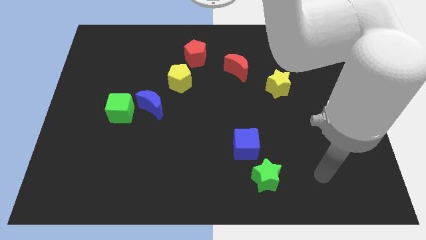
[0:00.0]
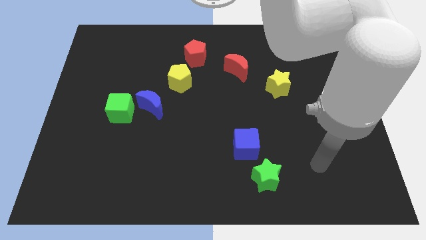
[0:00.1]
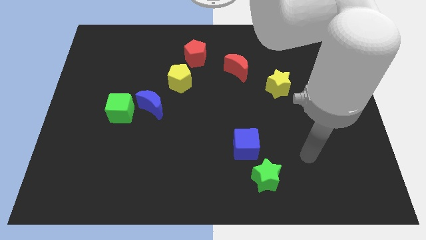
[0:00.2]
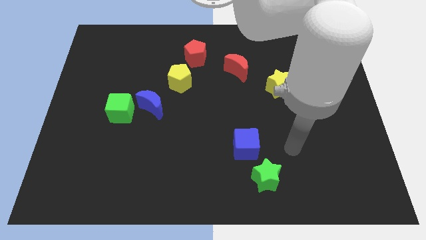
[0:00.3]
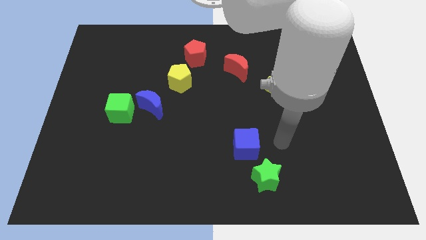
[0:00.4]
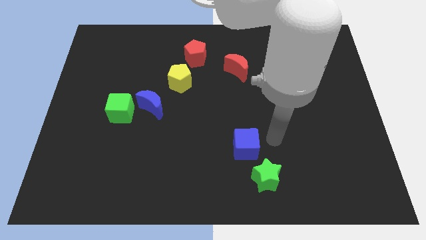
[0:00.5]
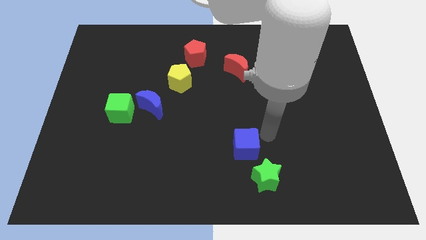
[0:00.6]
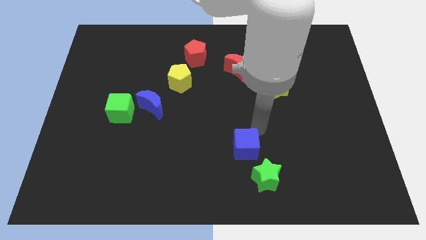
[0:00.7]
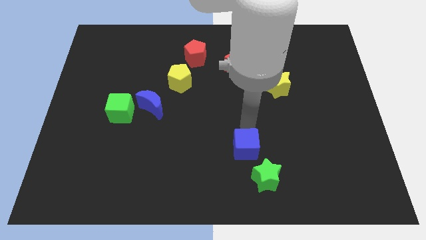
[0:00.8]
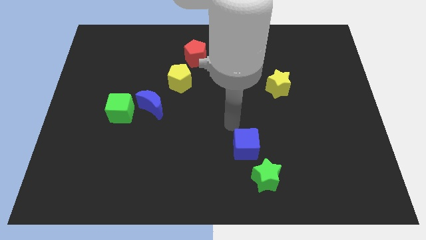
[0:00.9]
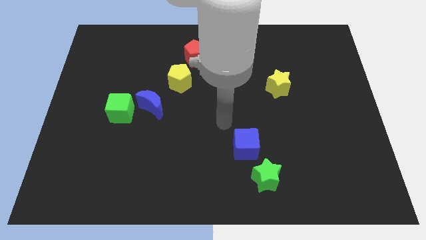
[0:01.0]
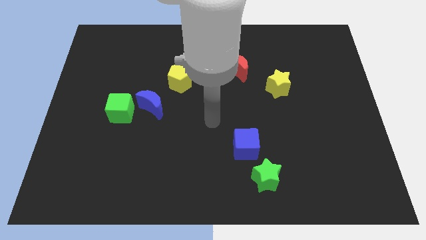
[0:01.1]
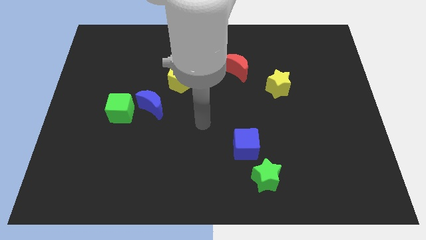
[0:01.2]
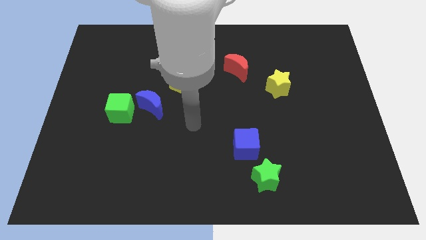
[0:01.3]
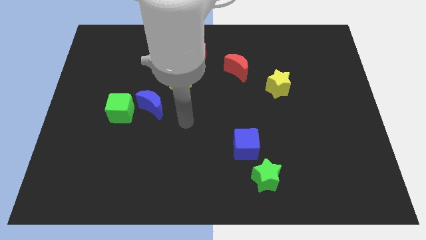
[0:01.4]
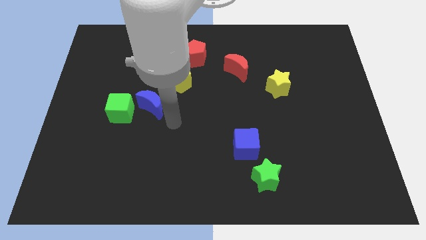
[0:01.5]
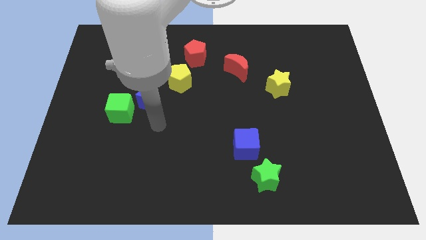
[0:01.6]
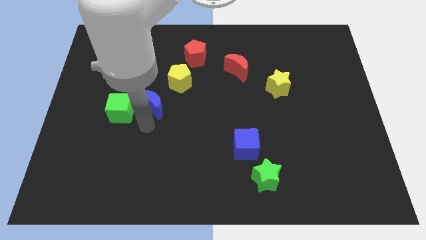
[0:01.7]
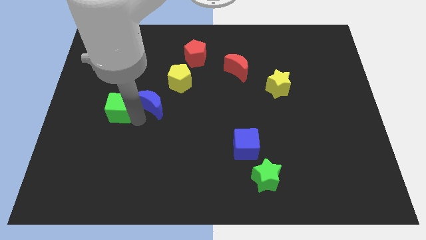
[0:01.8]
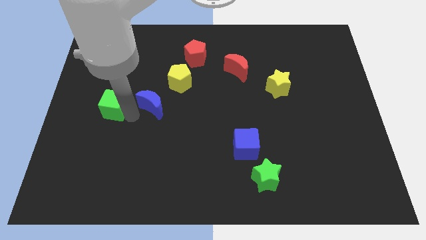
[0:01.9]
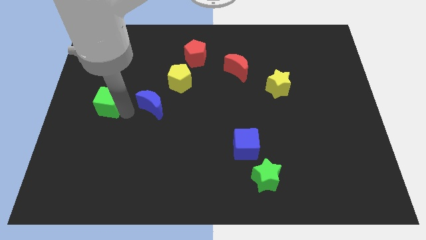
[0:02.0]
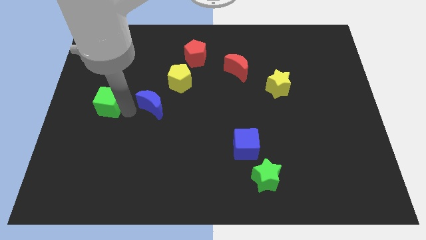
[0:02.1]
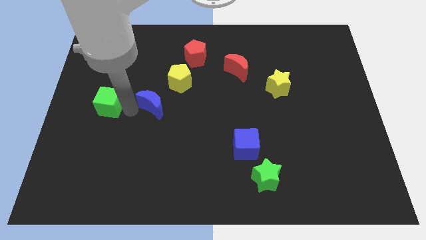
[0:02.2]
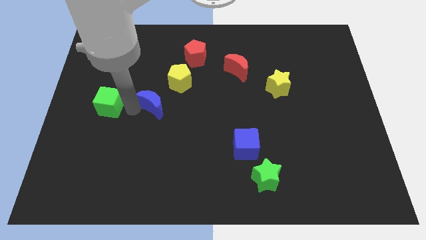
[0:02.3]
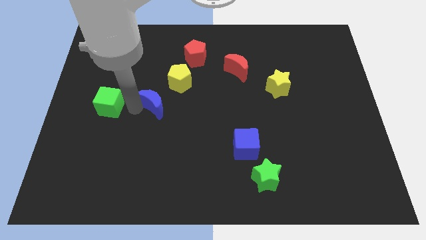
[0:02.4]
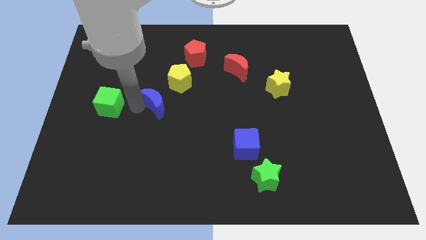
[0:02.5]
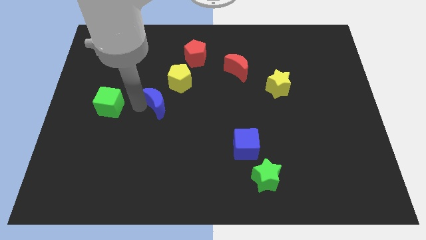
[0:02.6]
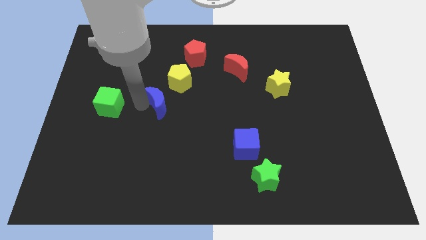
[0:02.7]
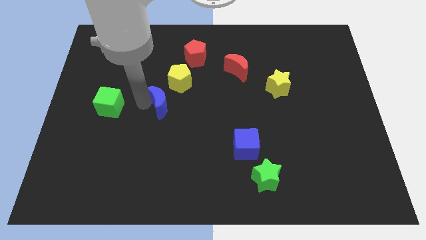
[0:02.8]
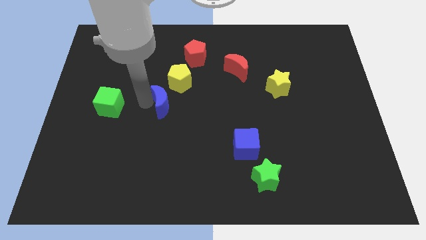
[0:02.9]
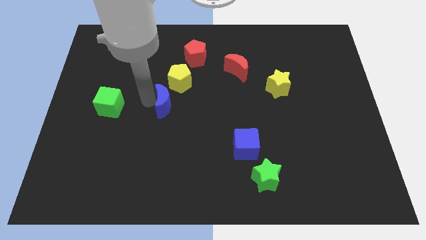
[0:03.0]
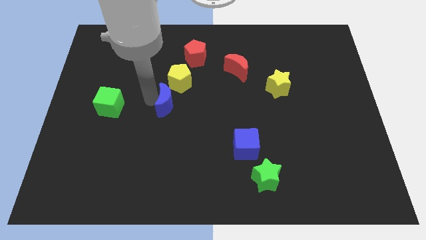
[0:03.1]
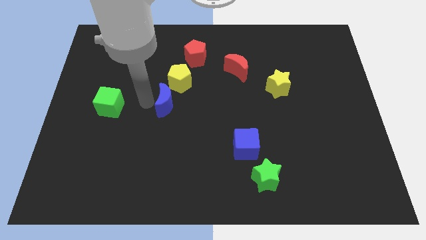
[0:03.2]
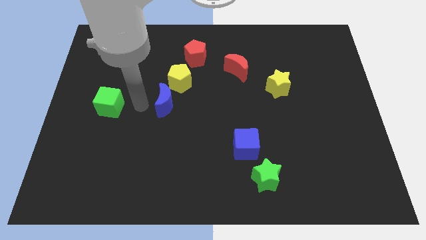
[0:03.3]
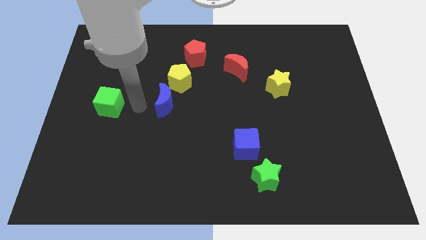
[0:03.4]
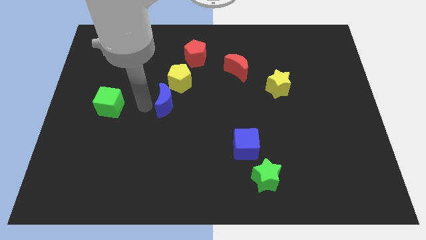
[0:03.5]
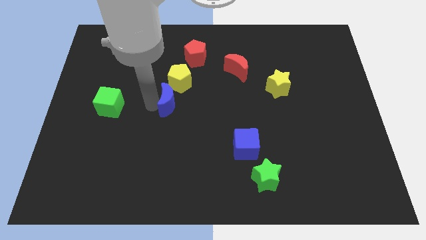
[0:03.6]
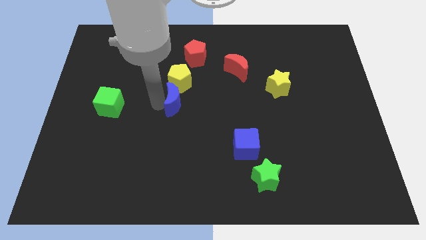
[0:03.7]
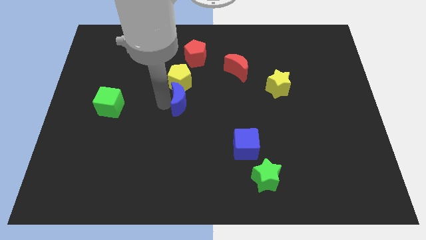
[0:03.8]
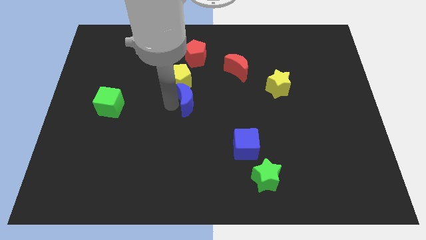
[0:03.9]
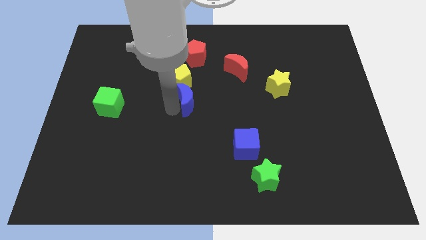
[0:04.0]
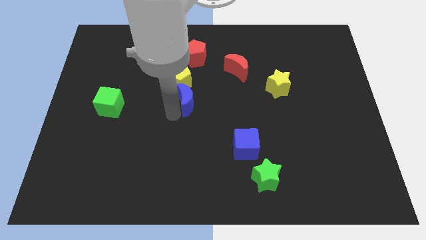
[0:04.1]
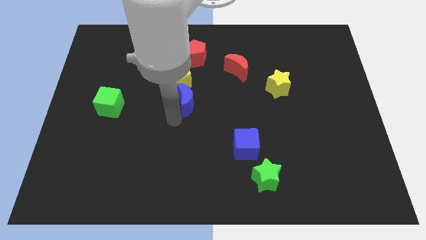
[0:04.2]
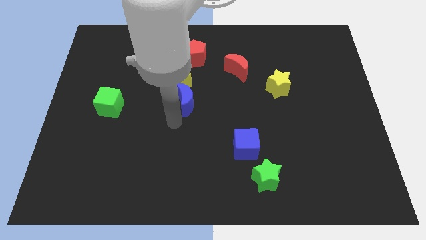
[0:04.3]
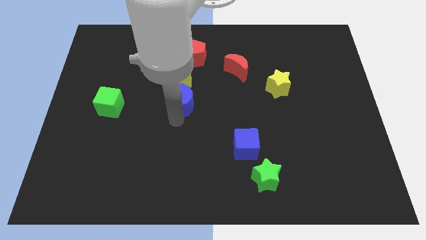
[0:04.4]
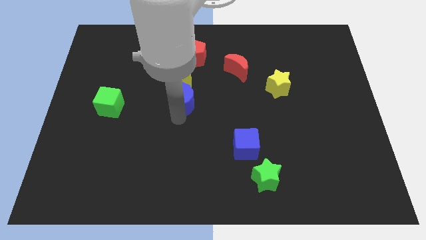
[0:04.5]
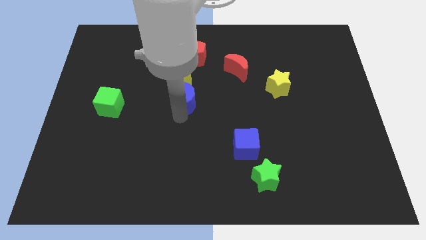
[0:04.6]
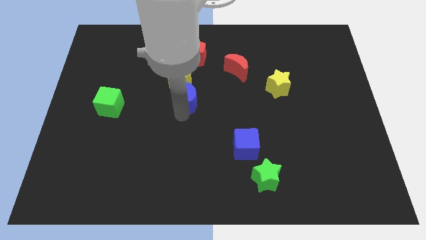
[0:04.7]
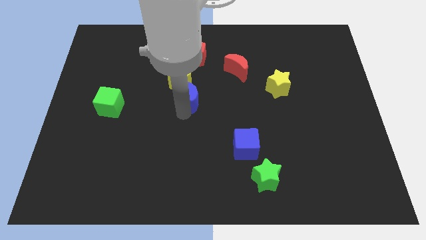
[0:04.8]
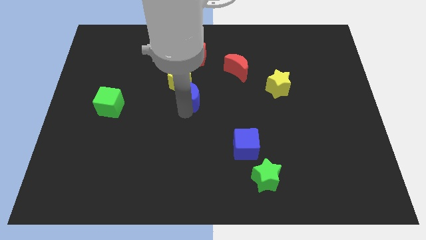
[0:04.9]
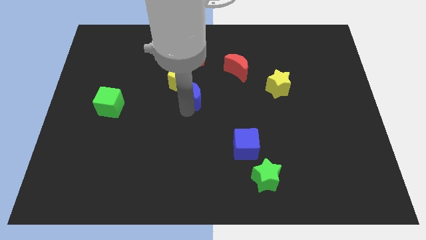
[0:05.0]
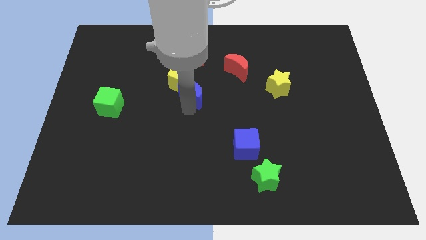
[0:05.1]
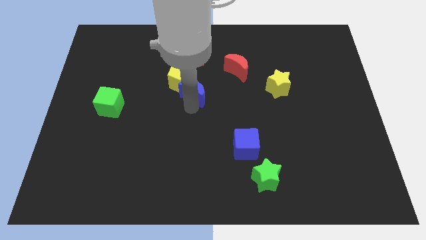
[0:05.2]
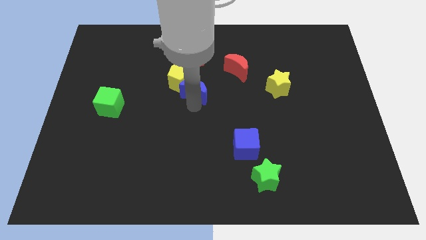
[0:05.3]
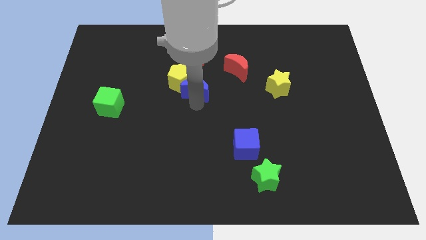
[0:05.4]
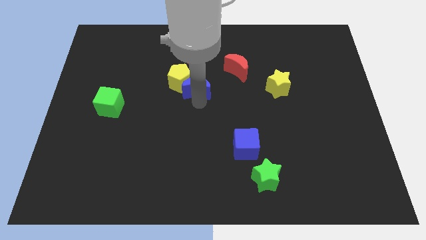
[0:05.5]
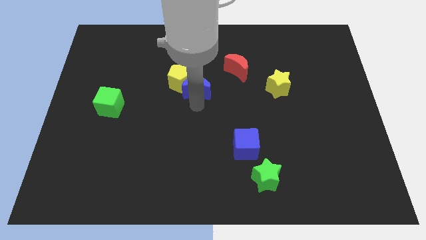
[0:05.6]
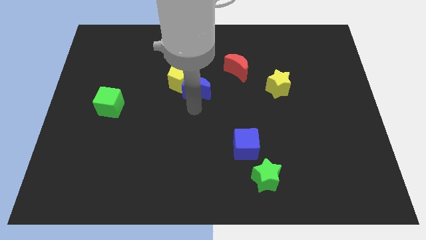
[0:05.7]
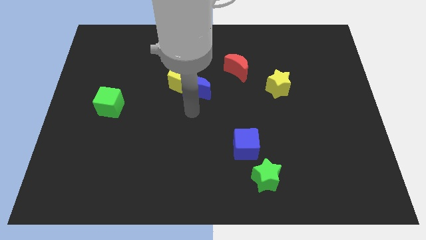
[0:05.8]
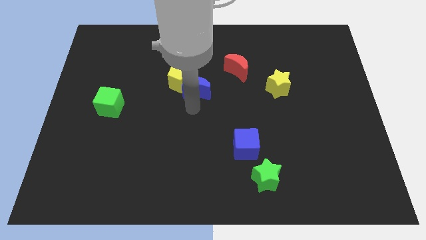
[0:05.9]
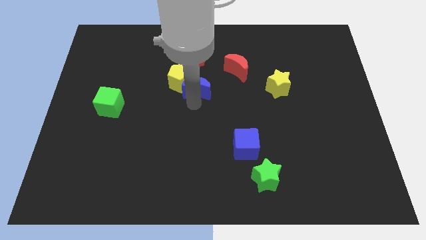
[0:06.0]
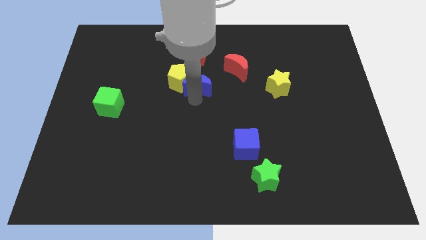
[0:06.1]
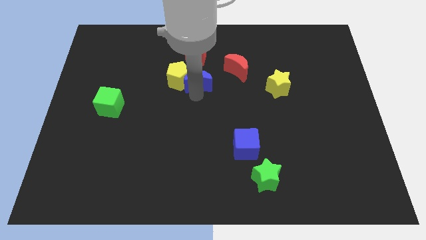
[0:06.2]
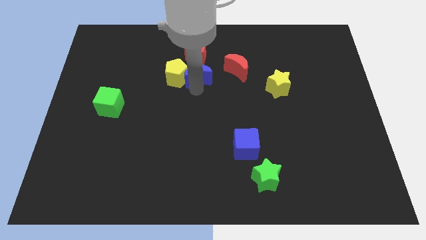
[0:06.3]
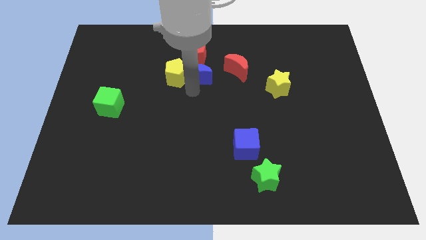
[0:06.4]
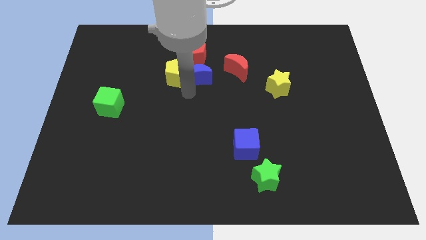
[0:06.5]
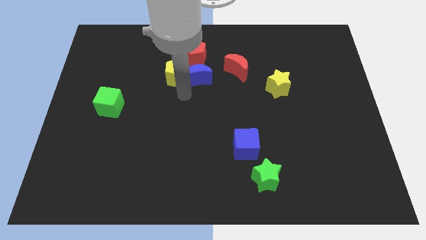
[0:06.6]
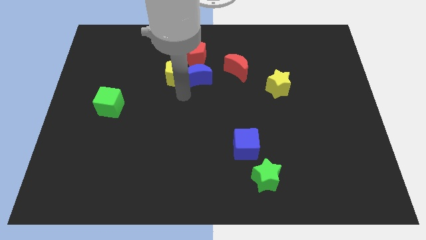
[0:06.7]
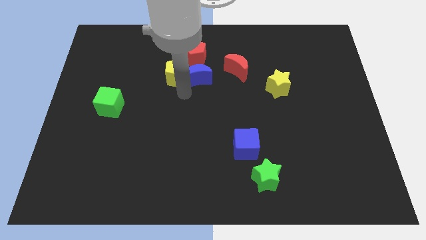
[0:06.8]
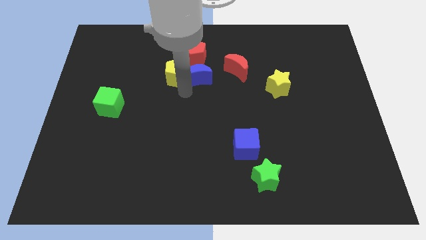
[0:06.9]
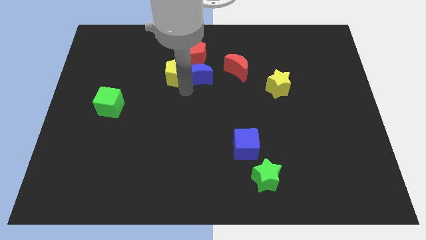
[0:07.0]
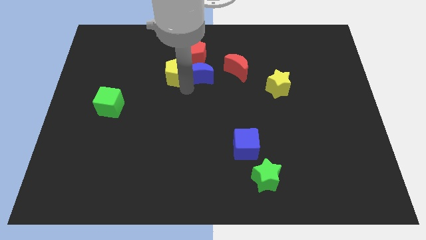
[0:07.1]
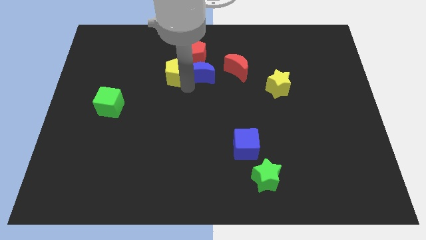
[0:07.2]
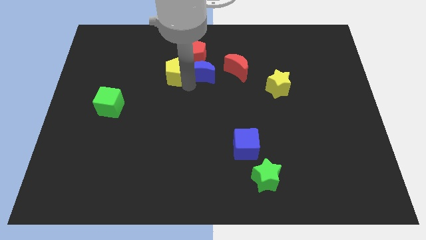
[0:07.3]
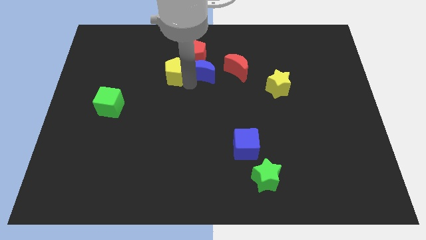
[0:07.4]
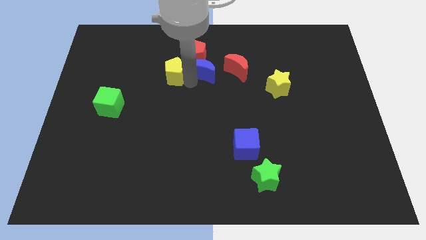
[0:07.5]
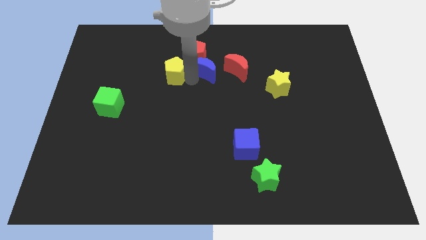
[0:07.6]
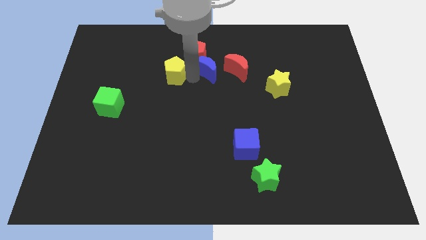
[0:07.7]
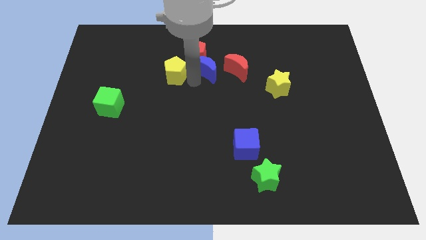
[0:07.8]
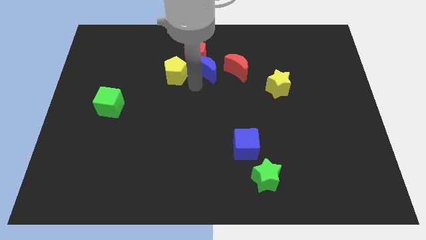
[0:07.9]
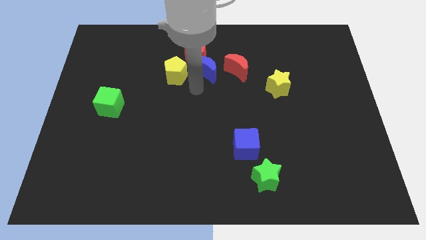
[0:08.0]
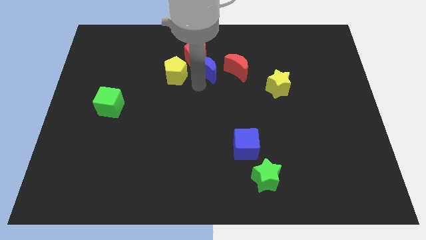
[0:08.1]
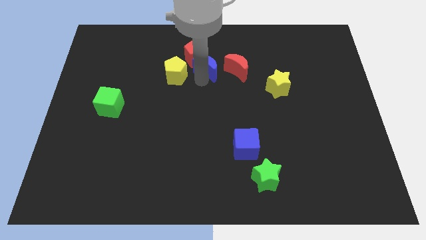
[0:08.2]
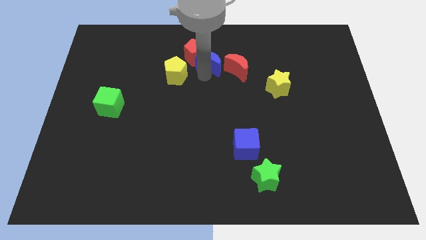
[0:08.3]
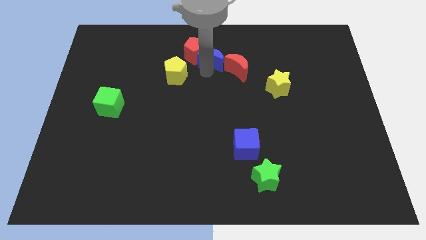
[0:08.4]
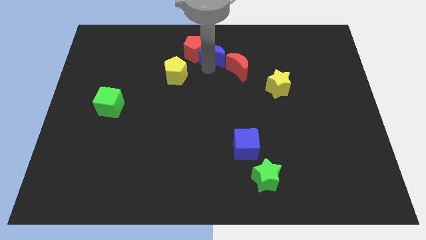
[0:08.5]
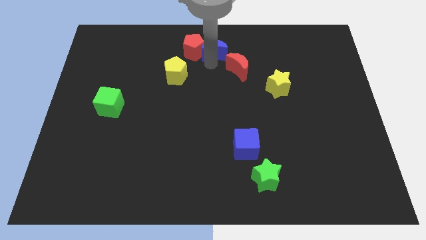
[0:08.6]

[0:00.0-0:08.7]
move the blue moon to the top
